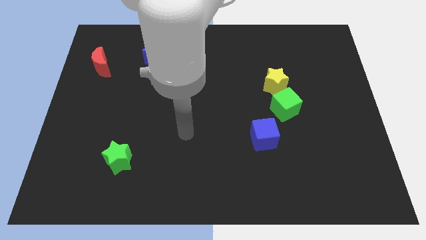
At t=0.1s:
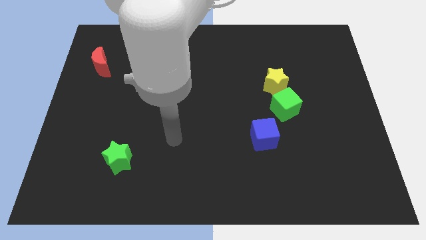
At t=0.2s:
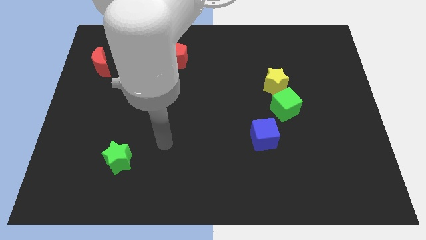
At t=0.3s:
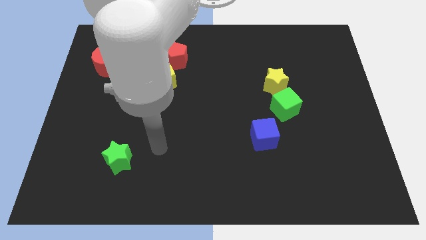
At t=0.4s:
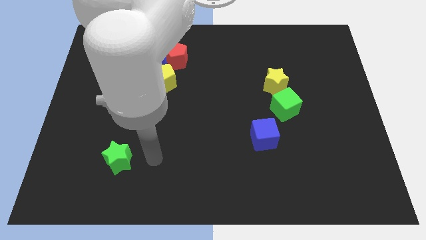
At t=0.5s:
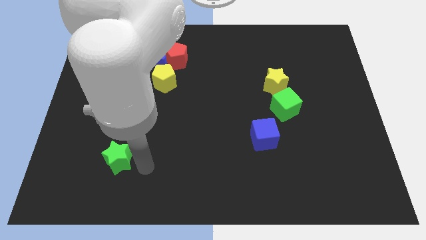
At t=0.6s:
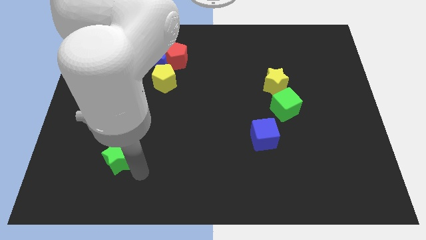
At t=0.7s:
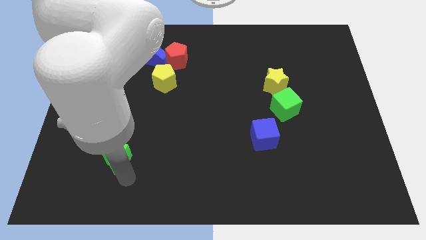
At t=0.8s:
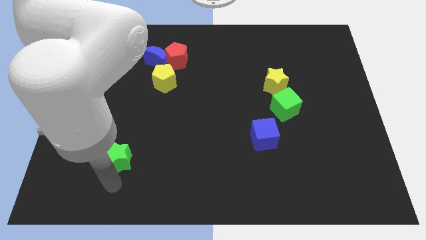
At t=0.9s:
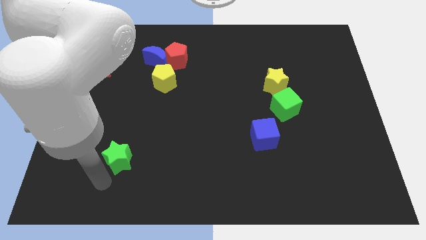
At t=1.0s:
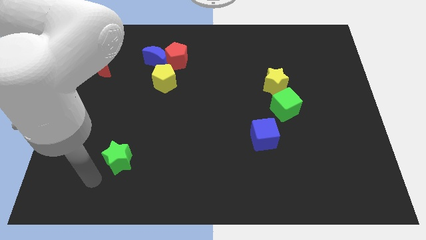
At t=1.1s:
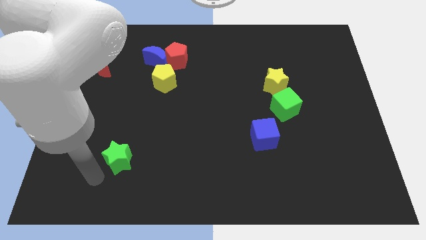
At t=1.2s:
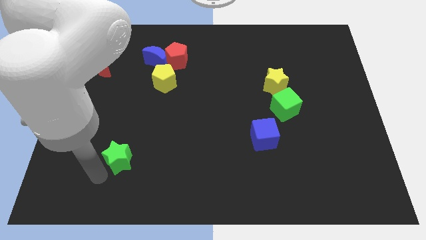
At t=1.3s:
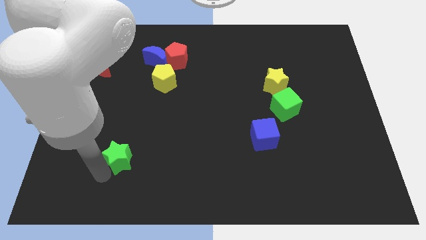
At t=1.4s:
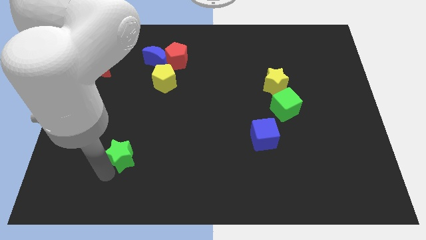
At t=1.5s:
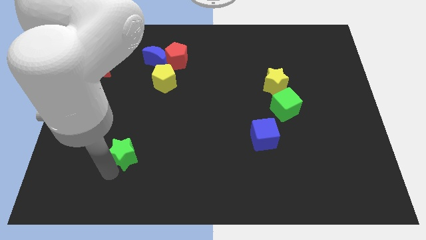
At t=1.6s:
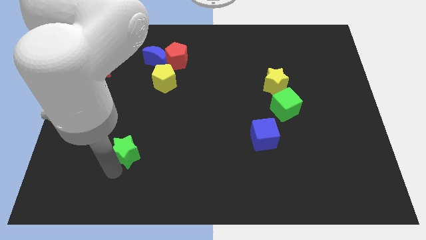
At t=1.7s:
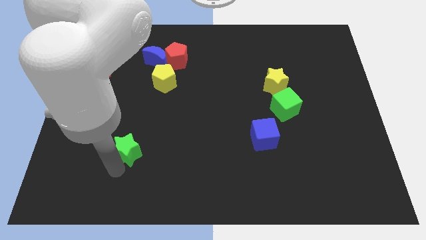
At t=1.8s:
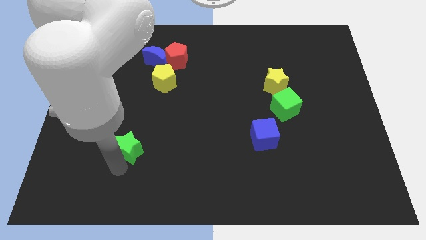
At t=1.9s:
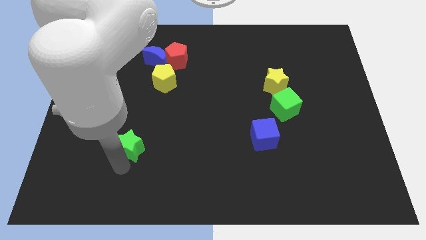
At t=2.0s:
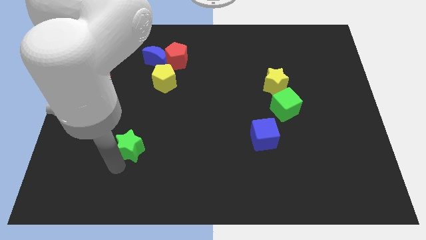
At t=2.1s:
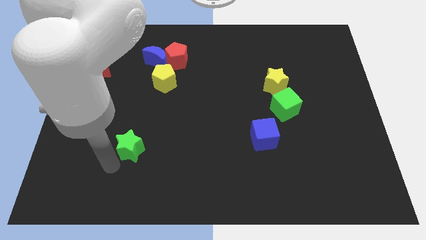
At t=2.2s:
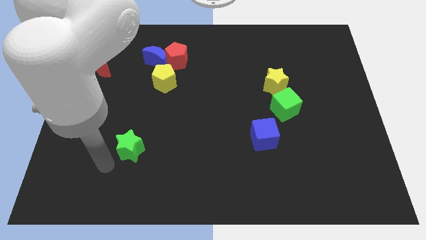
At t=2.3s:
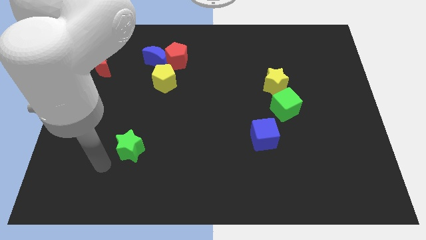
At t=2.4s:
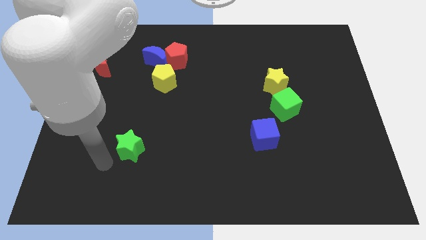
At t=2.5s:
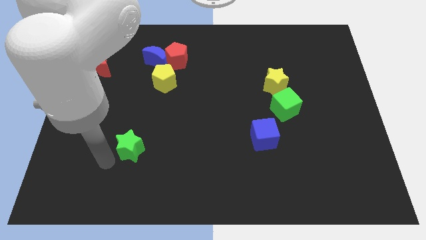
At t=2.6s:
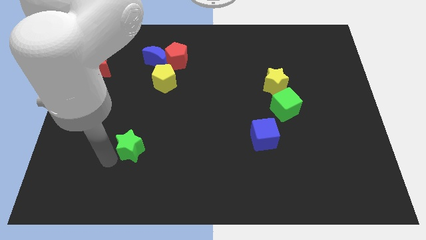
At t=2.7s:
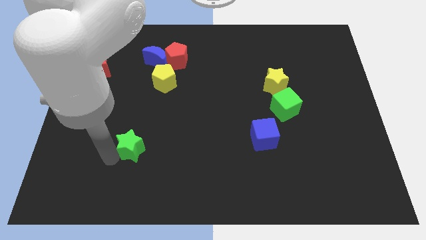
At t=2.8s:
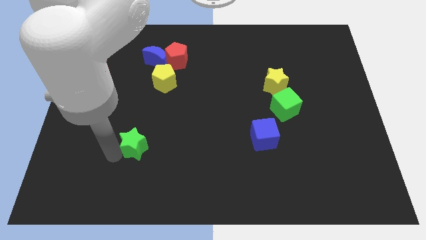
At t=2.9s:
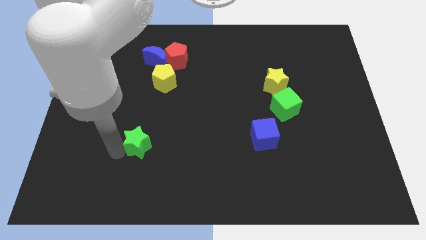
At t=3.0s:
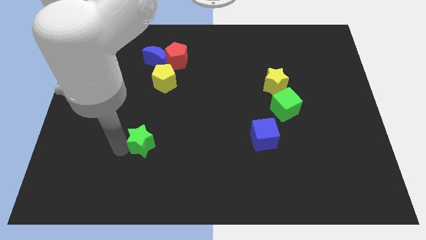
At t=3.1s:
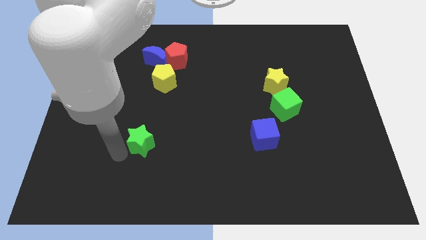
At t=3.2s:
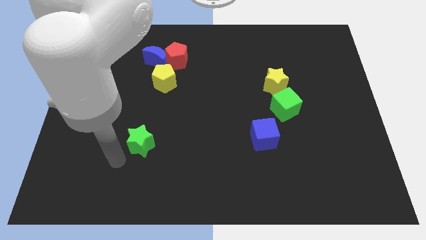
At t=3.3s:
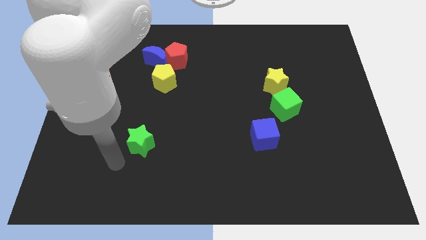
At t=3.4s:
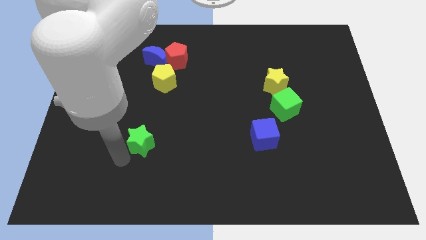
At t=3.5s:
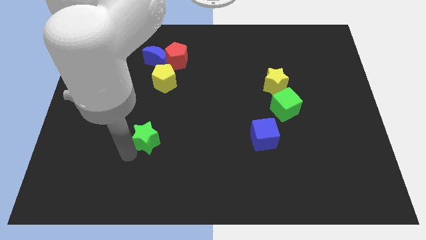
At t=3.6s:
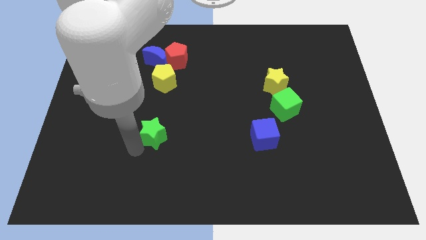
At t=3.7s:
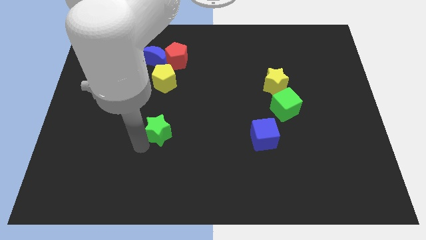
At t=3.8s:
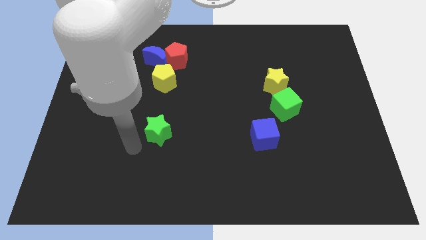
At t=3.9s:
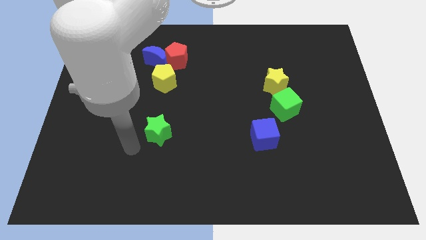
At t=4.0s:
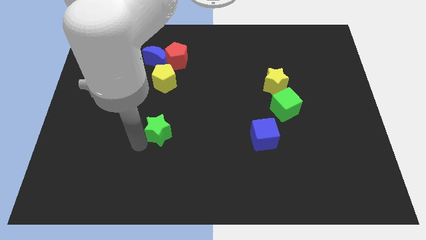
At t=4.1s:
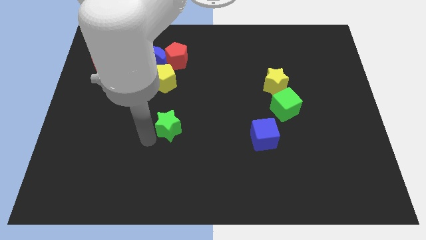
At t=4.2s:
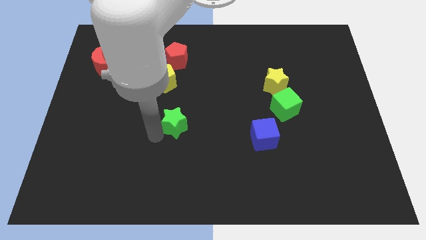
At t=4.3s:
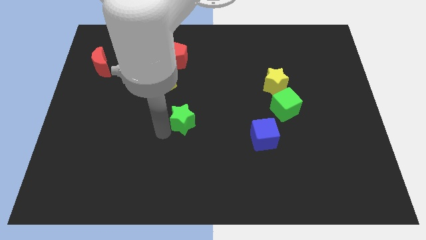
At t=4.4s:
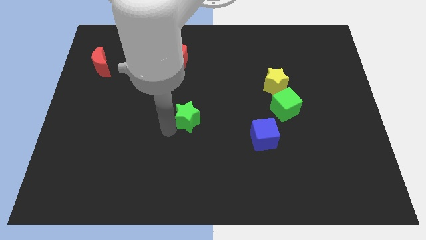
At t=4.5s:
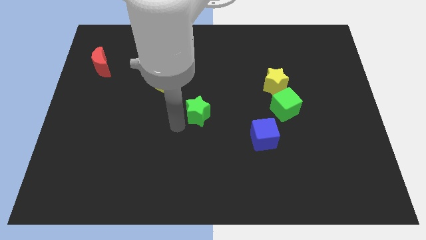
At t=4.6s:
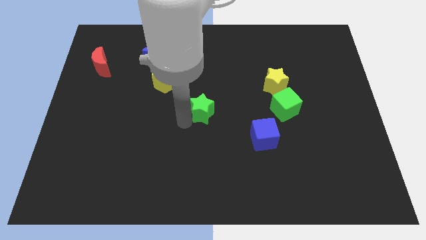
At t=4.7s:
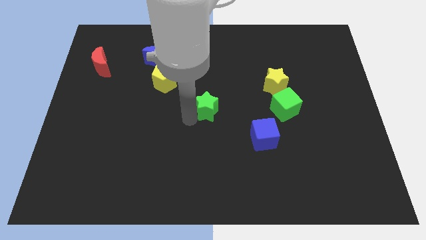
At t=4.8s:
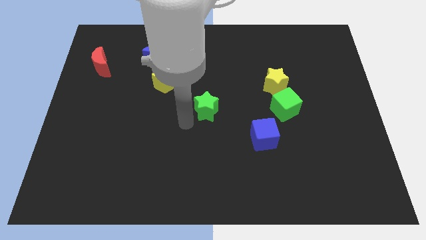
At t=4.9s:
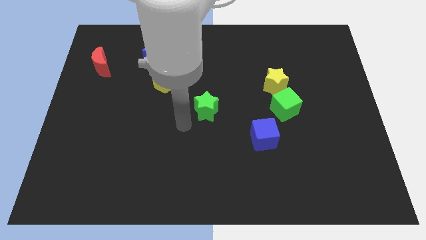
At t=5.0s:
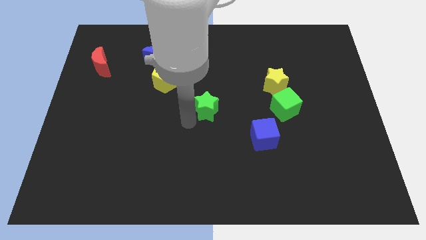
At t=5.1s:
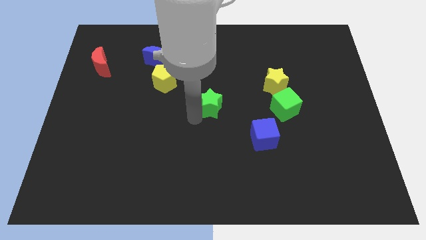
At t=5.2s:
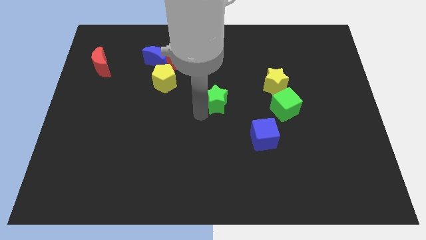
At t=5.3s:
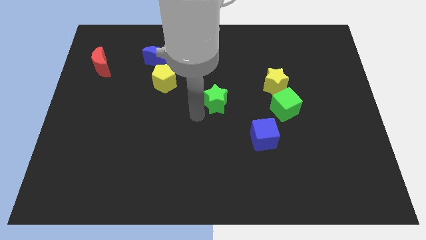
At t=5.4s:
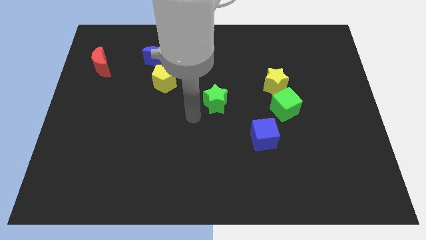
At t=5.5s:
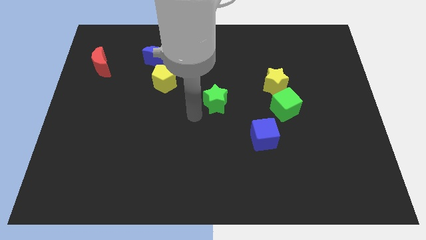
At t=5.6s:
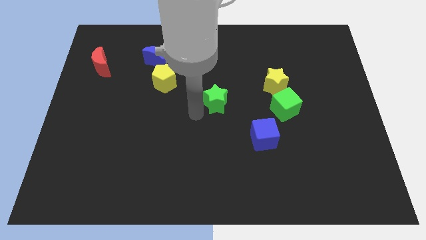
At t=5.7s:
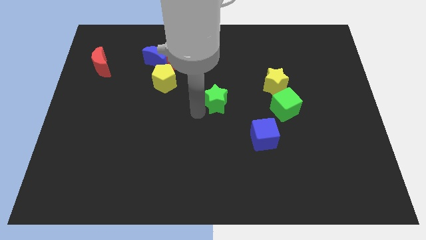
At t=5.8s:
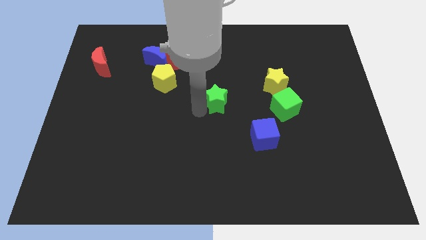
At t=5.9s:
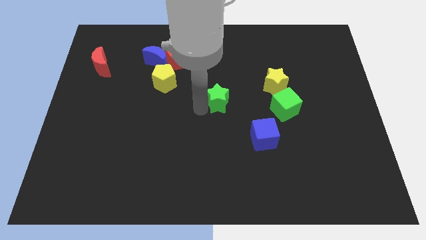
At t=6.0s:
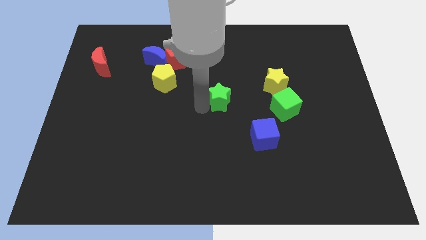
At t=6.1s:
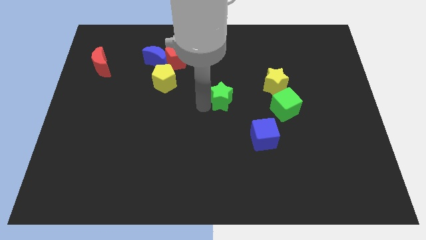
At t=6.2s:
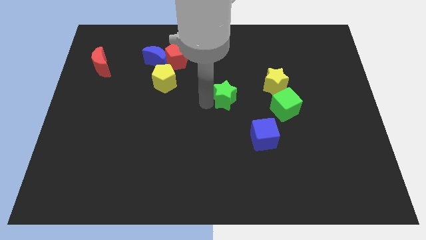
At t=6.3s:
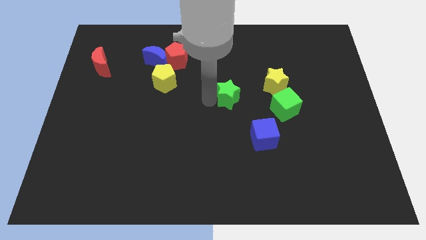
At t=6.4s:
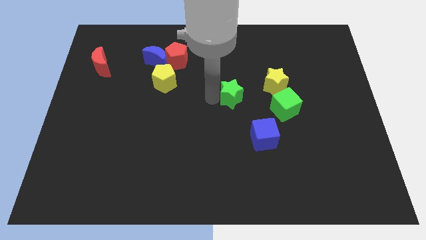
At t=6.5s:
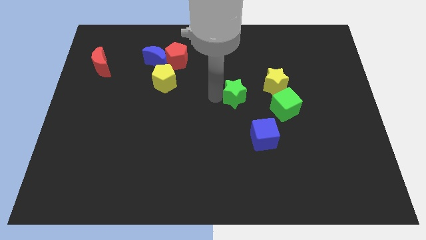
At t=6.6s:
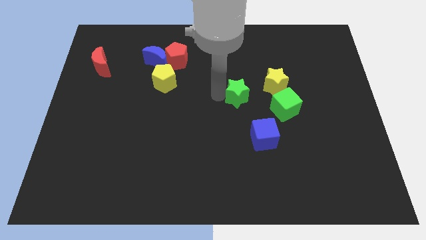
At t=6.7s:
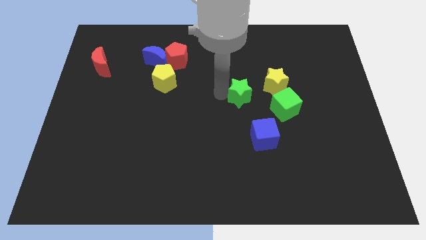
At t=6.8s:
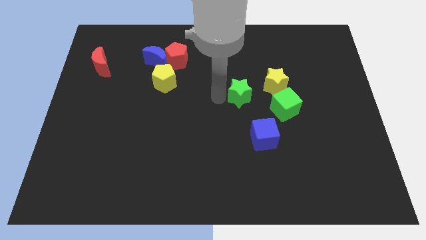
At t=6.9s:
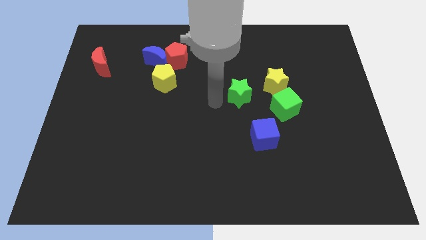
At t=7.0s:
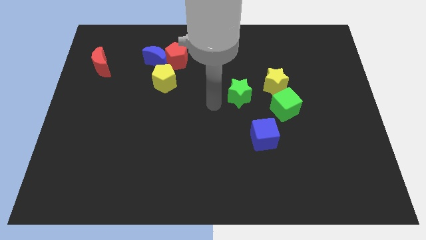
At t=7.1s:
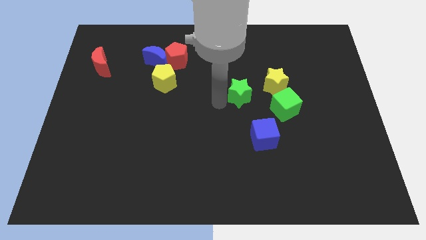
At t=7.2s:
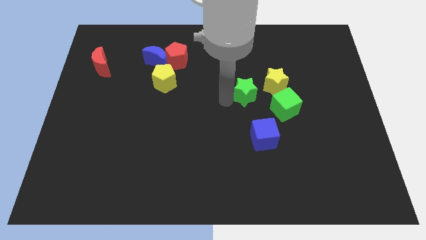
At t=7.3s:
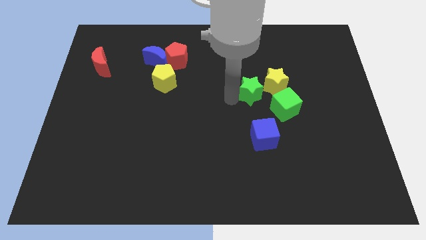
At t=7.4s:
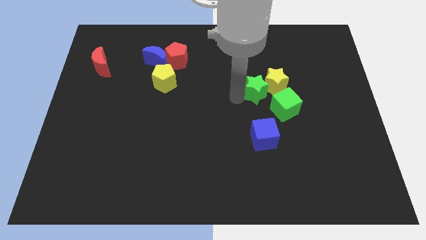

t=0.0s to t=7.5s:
put the green star close to the yellow star
